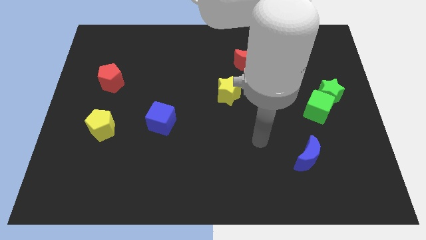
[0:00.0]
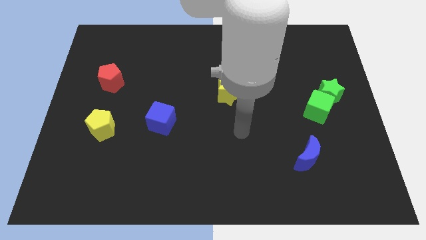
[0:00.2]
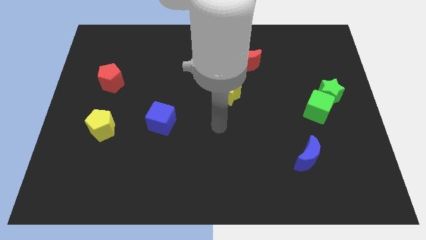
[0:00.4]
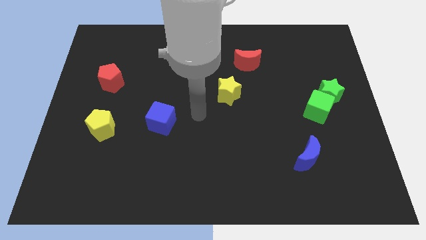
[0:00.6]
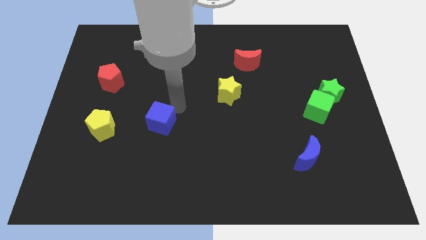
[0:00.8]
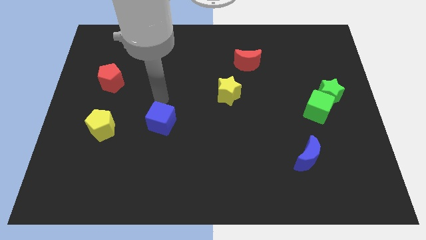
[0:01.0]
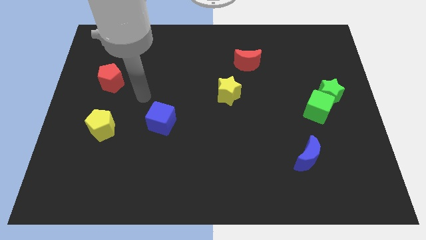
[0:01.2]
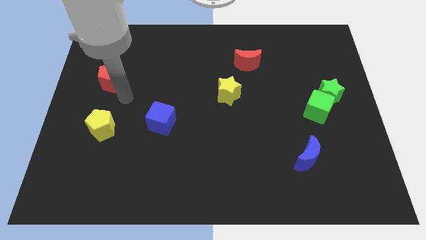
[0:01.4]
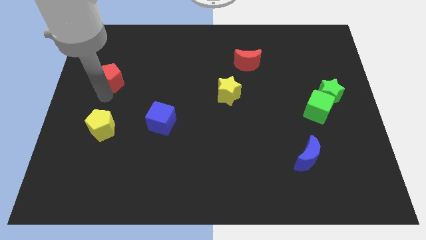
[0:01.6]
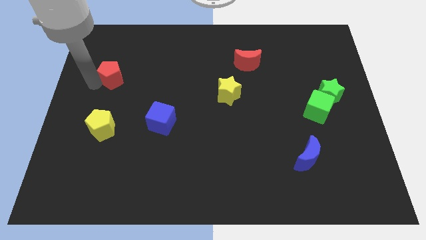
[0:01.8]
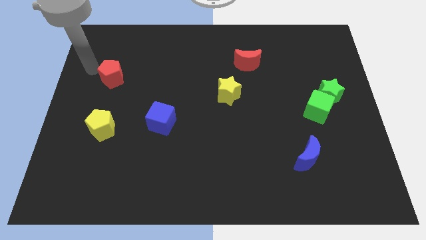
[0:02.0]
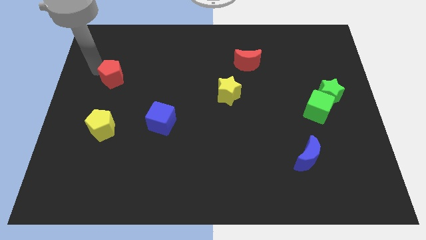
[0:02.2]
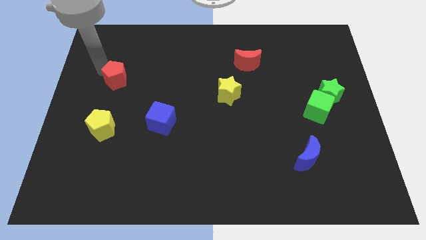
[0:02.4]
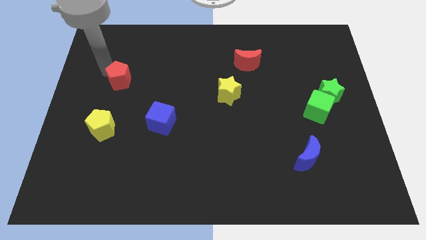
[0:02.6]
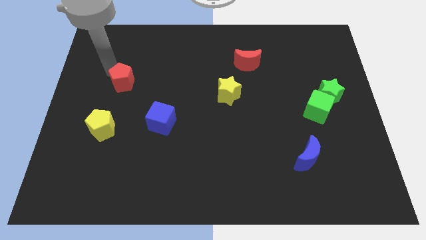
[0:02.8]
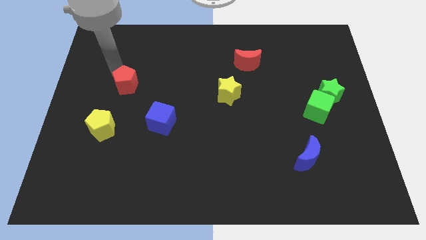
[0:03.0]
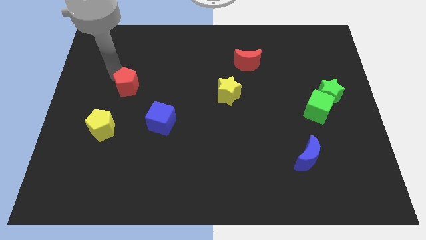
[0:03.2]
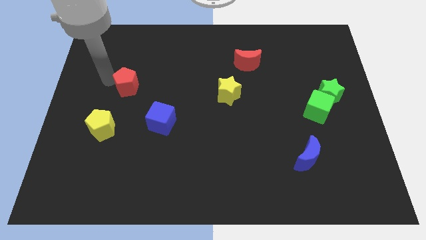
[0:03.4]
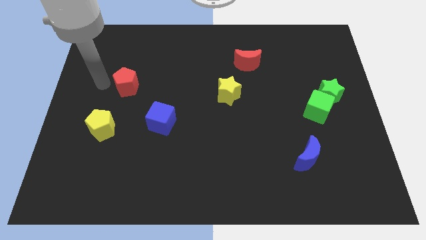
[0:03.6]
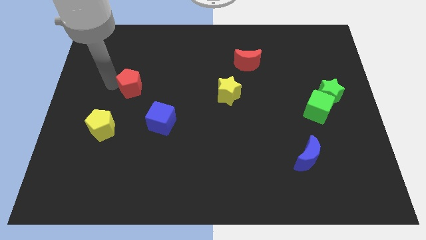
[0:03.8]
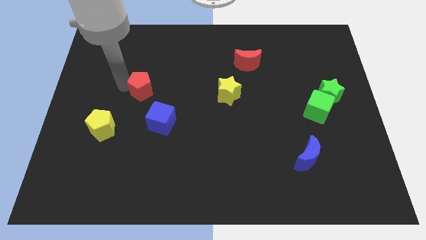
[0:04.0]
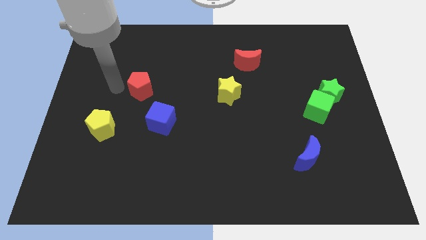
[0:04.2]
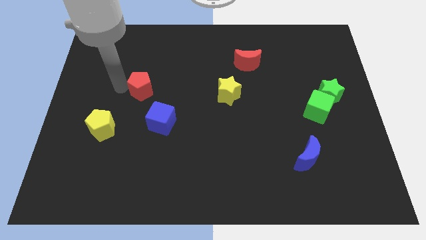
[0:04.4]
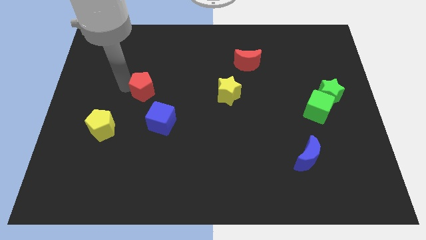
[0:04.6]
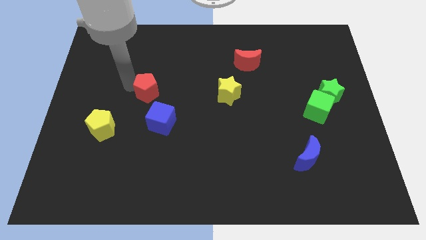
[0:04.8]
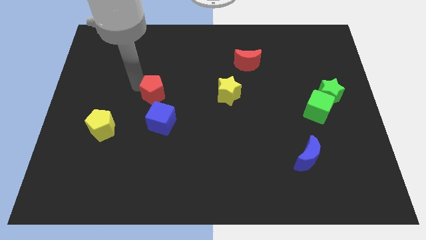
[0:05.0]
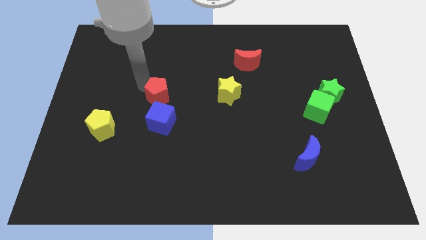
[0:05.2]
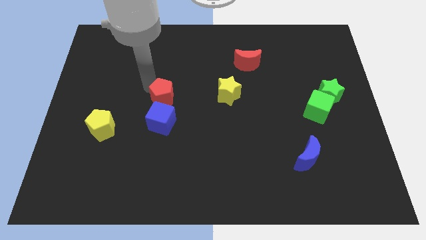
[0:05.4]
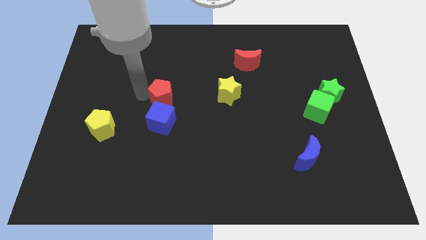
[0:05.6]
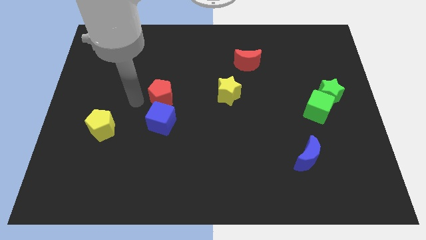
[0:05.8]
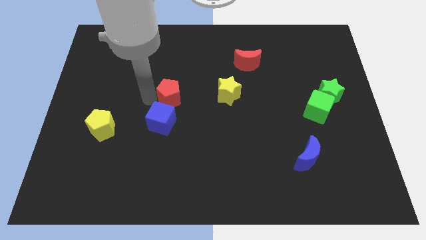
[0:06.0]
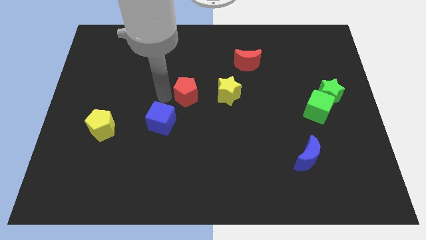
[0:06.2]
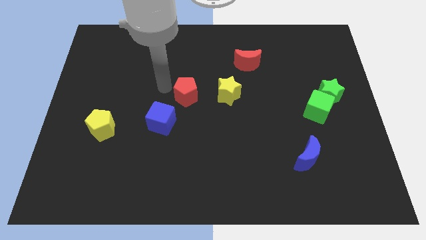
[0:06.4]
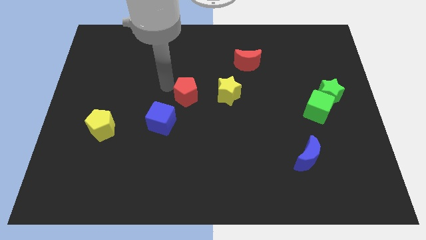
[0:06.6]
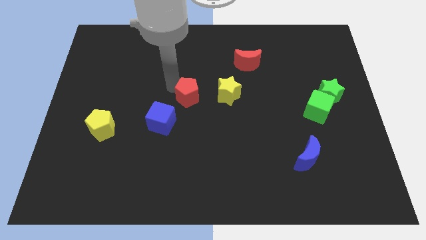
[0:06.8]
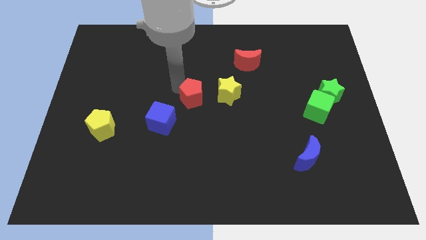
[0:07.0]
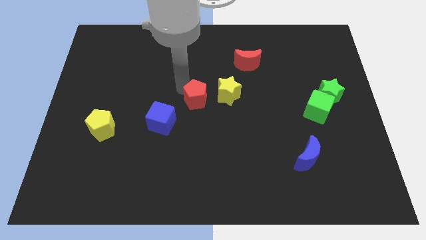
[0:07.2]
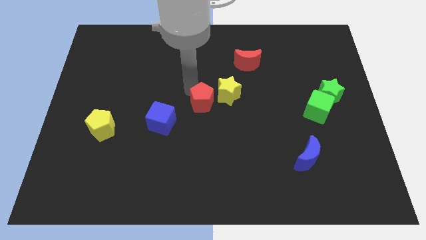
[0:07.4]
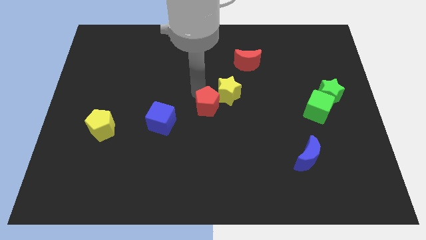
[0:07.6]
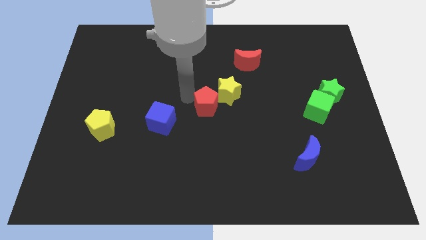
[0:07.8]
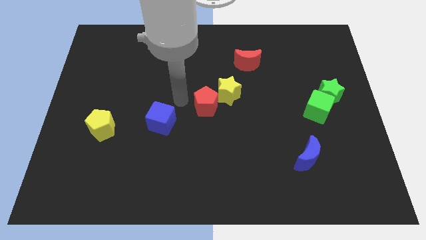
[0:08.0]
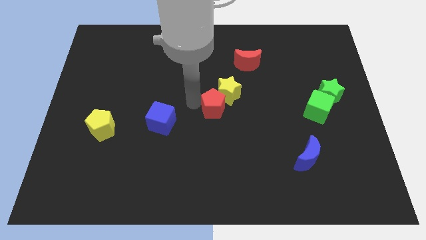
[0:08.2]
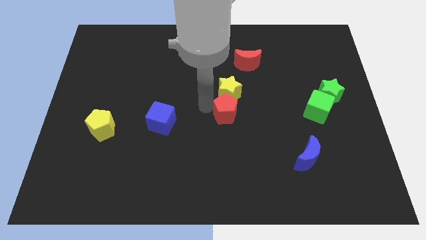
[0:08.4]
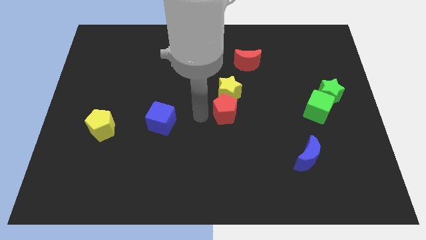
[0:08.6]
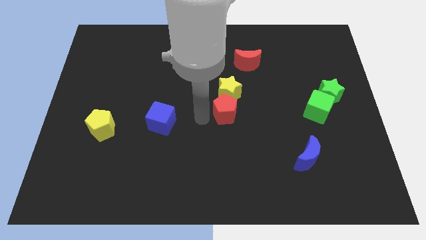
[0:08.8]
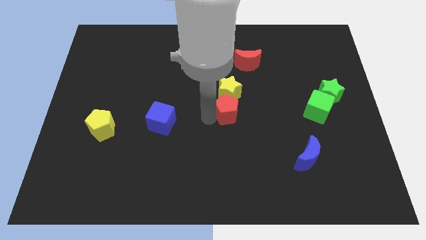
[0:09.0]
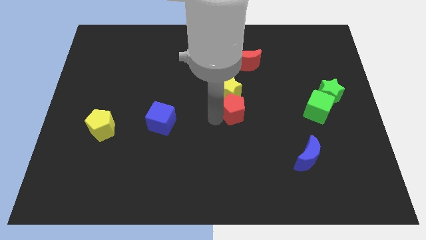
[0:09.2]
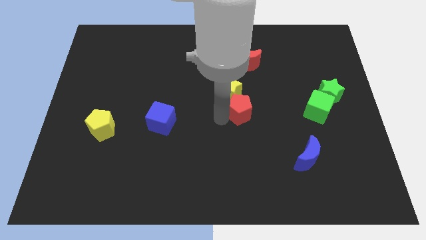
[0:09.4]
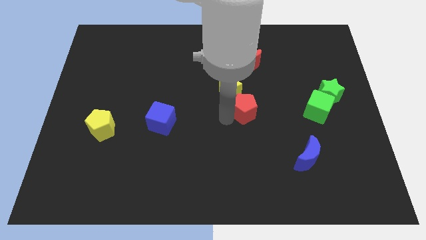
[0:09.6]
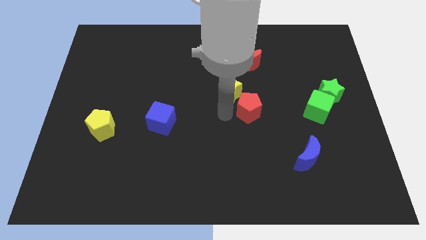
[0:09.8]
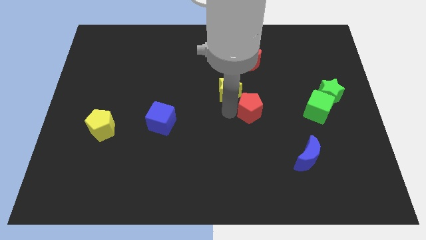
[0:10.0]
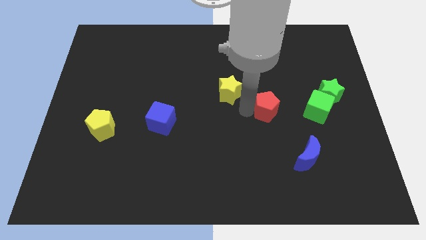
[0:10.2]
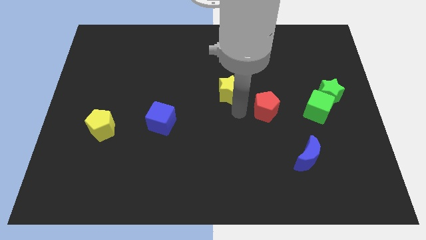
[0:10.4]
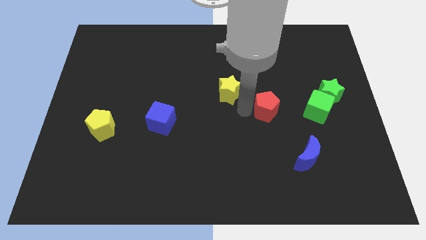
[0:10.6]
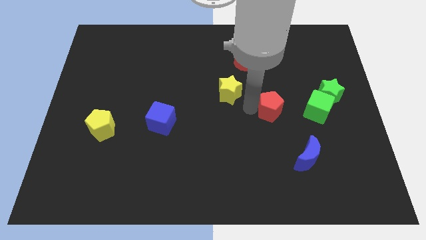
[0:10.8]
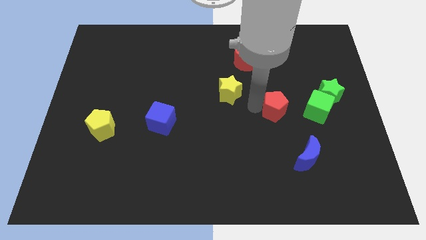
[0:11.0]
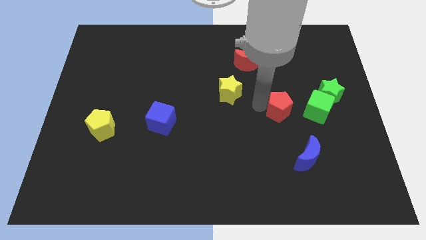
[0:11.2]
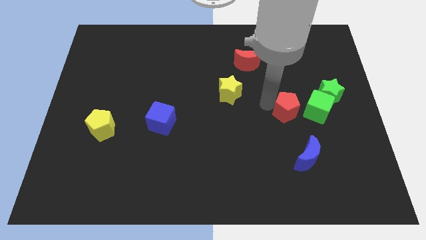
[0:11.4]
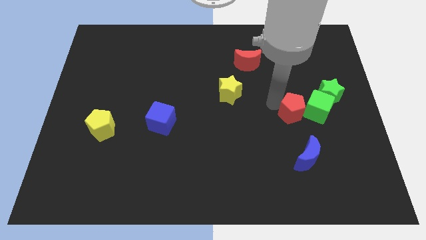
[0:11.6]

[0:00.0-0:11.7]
move the red pentagon next to the green cube

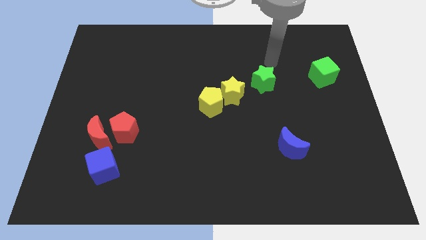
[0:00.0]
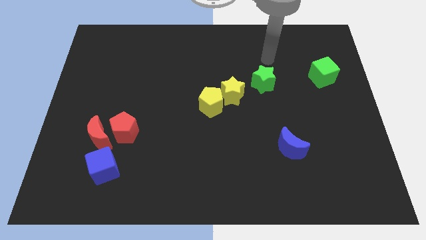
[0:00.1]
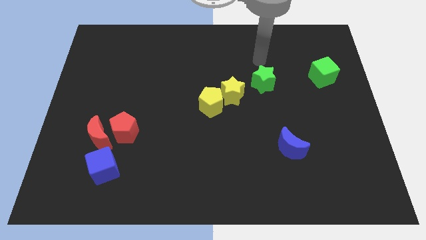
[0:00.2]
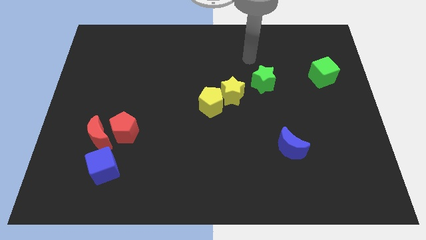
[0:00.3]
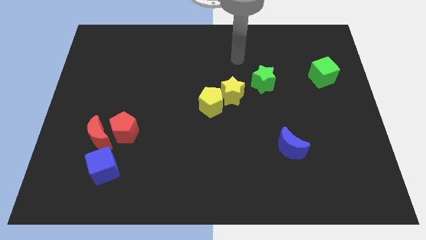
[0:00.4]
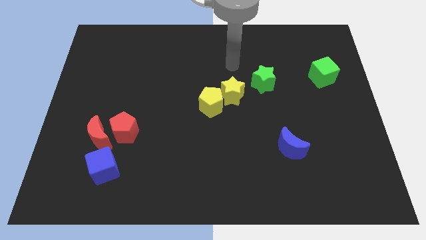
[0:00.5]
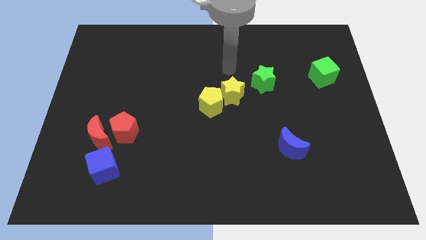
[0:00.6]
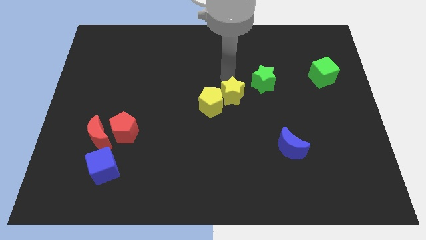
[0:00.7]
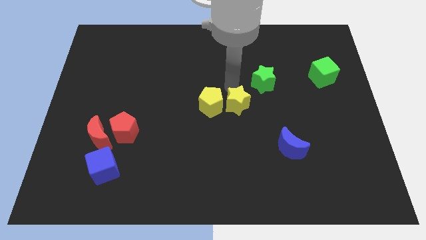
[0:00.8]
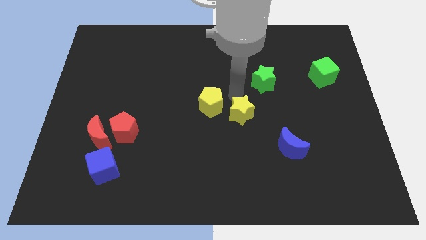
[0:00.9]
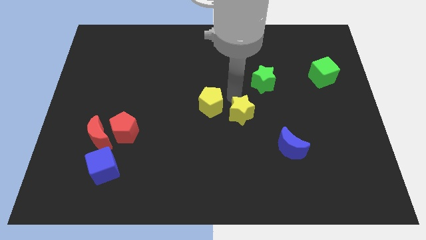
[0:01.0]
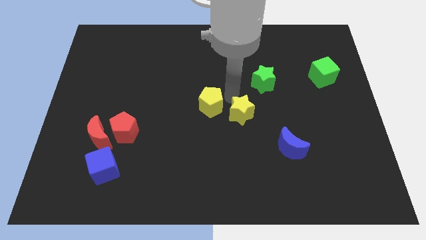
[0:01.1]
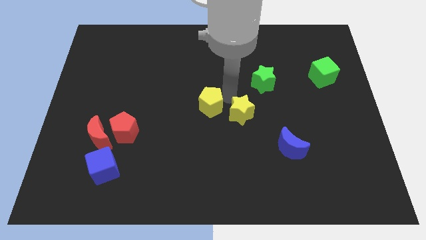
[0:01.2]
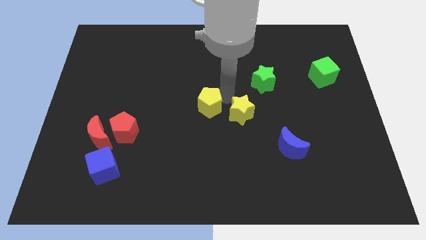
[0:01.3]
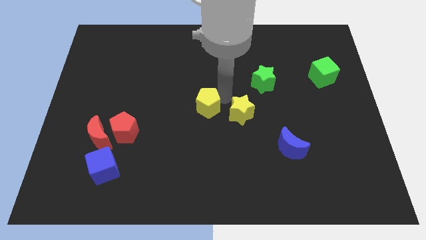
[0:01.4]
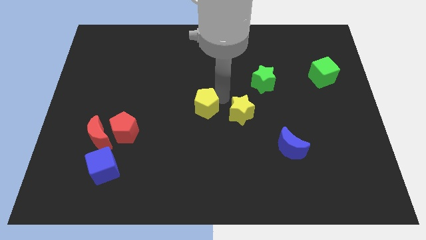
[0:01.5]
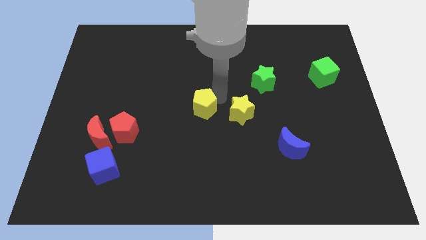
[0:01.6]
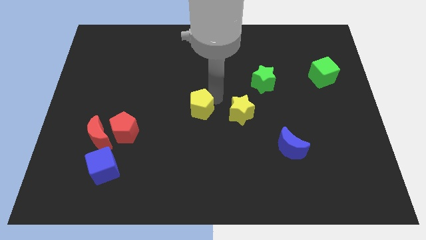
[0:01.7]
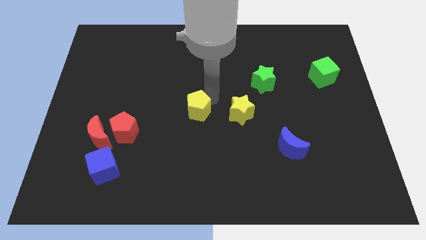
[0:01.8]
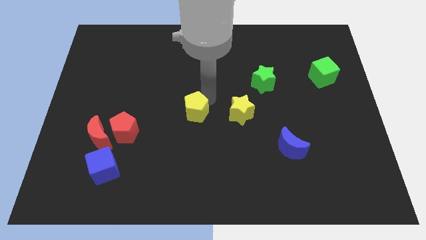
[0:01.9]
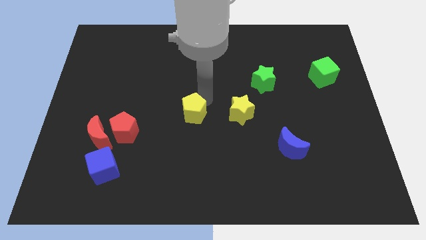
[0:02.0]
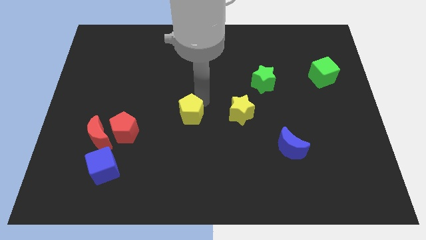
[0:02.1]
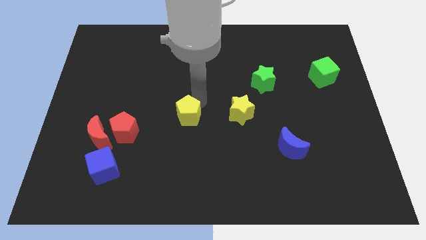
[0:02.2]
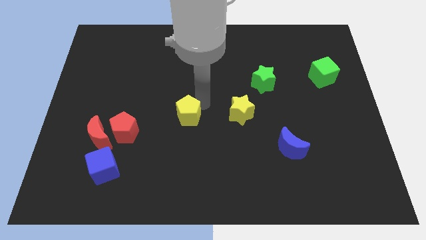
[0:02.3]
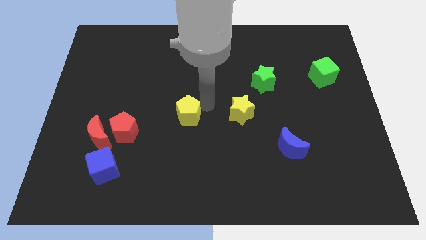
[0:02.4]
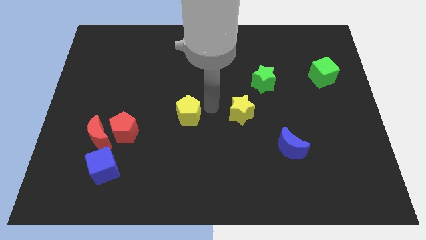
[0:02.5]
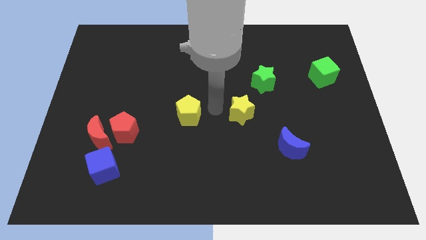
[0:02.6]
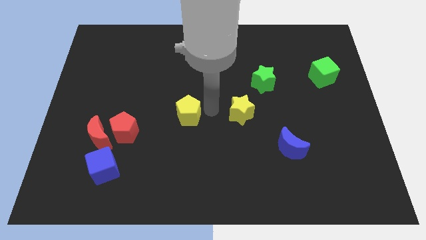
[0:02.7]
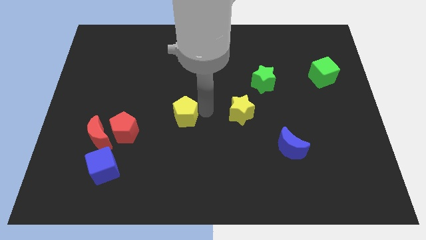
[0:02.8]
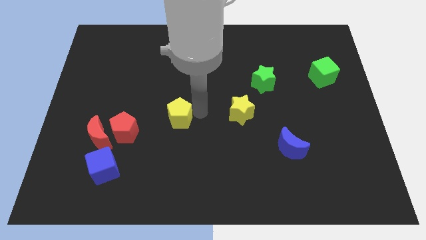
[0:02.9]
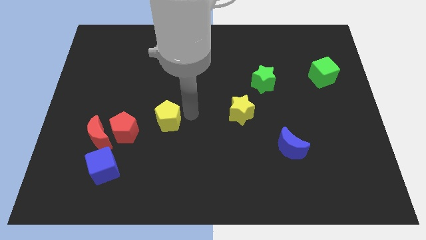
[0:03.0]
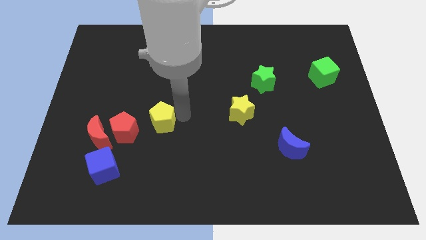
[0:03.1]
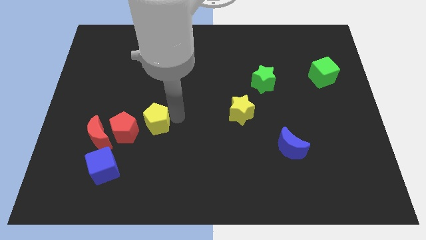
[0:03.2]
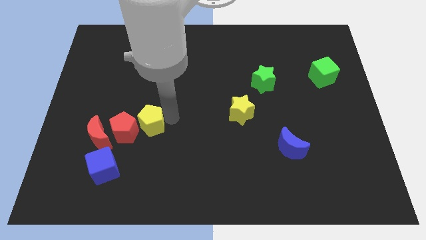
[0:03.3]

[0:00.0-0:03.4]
put the yellow pentagon to the red pentagon
